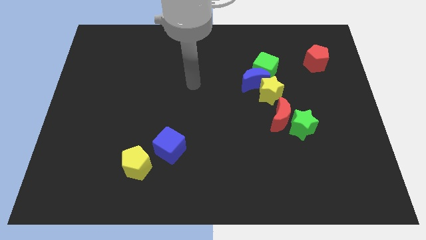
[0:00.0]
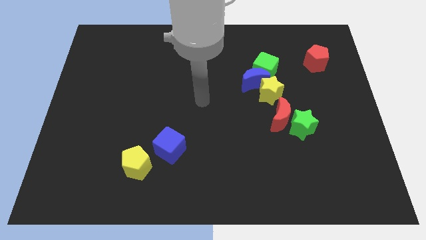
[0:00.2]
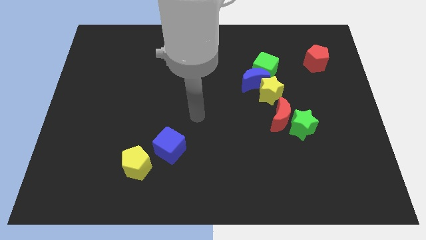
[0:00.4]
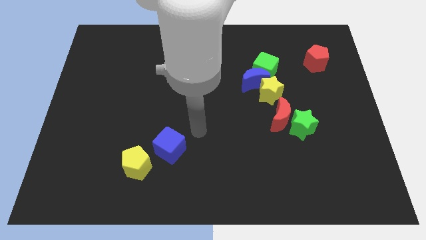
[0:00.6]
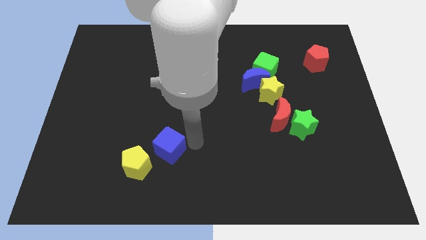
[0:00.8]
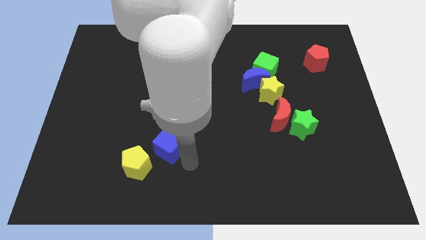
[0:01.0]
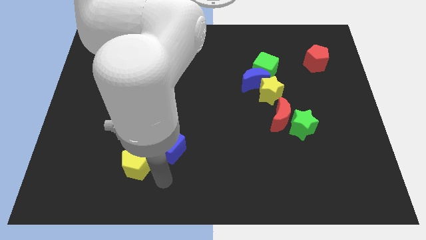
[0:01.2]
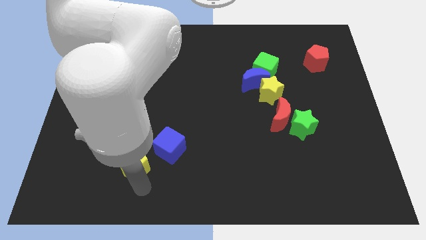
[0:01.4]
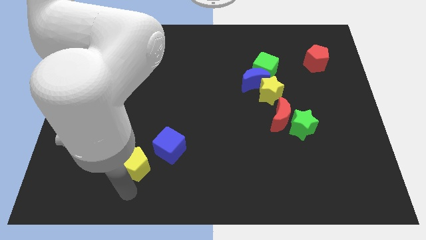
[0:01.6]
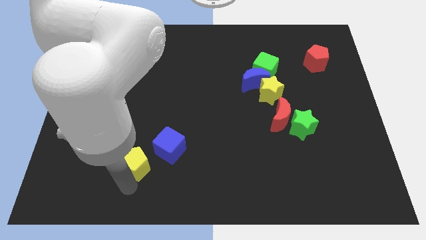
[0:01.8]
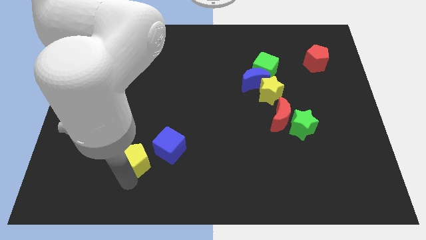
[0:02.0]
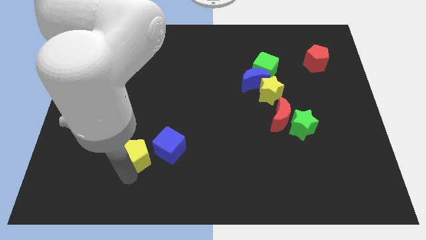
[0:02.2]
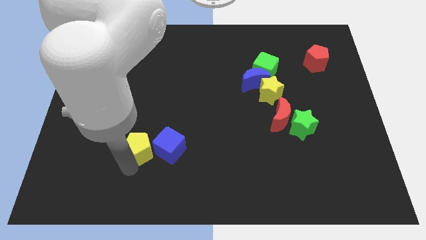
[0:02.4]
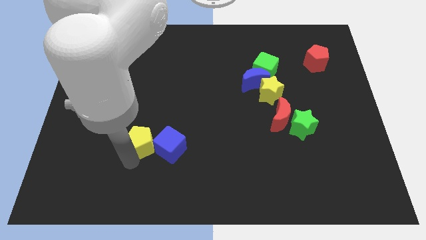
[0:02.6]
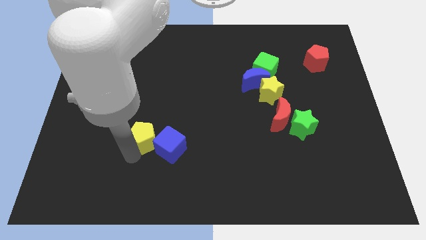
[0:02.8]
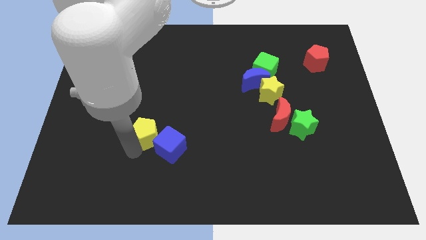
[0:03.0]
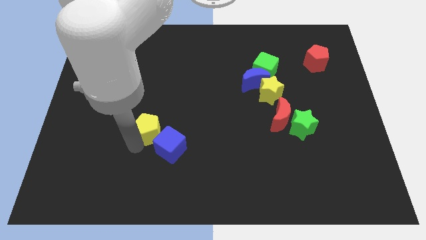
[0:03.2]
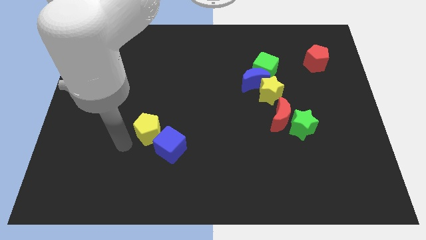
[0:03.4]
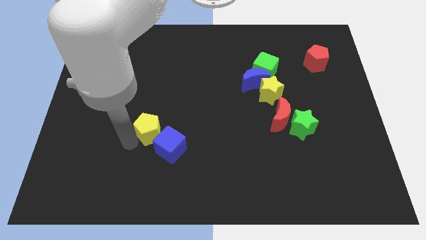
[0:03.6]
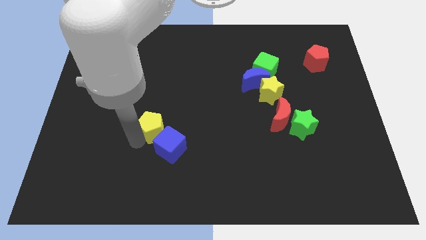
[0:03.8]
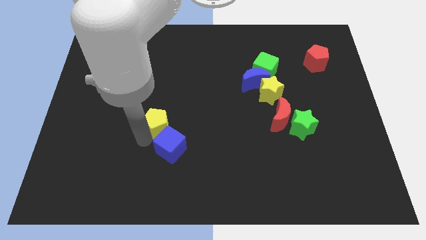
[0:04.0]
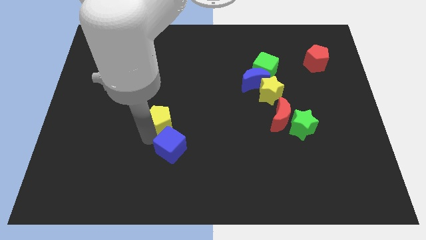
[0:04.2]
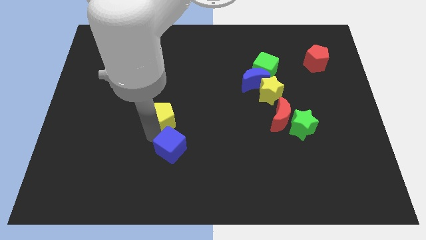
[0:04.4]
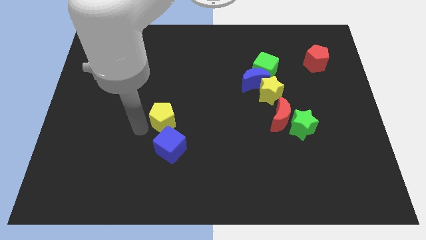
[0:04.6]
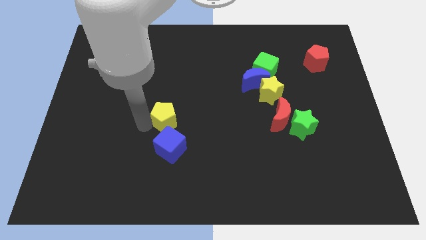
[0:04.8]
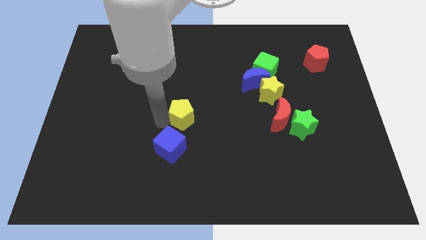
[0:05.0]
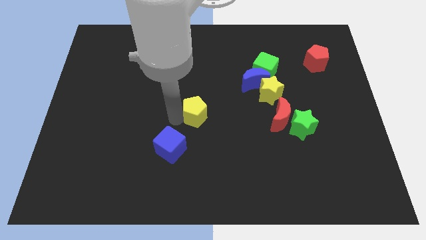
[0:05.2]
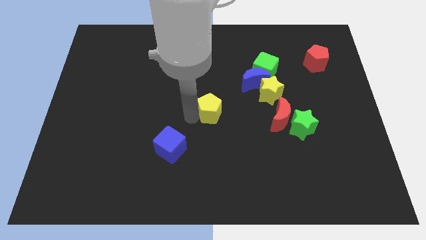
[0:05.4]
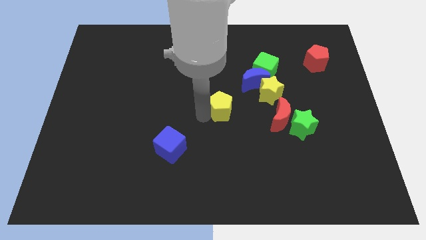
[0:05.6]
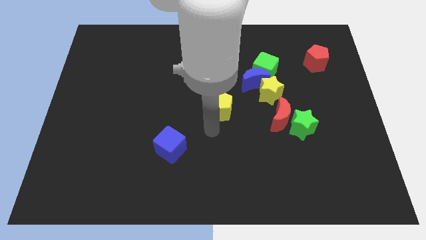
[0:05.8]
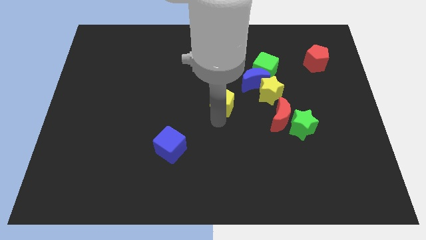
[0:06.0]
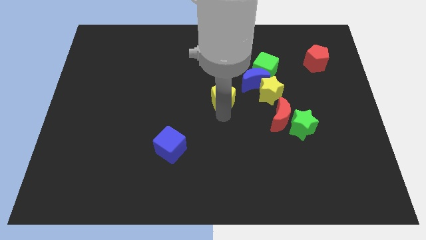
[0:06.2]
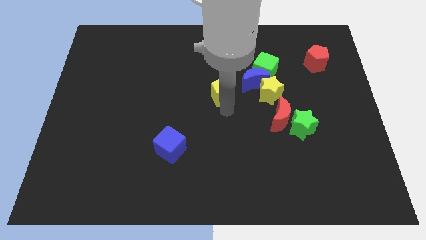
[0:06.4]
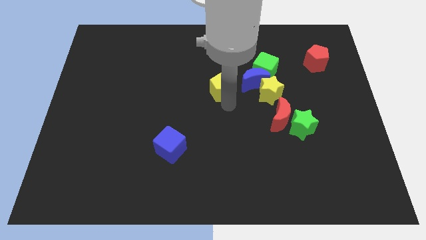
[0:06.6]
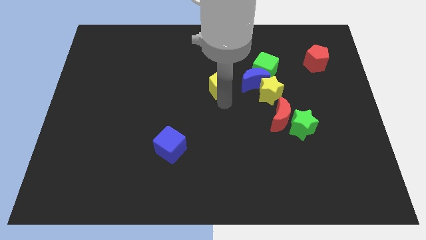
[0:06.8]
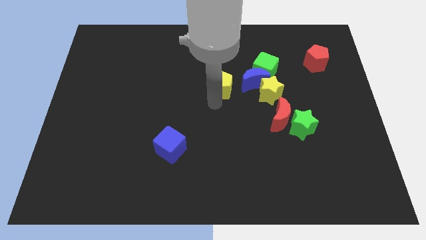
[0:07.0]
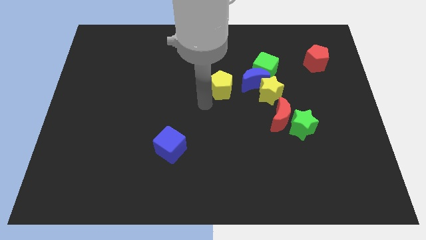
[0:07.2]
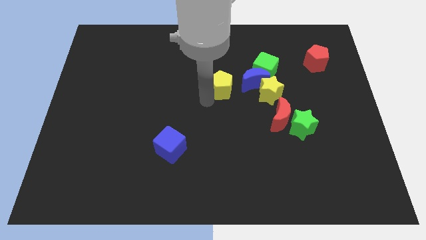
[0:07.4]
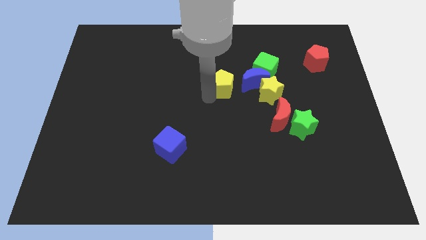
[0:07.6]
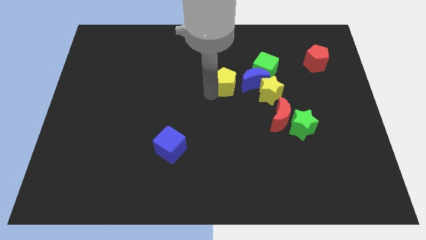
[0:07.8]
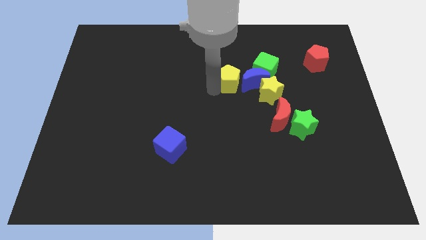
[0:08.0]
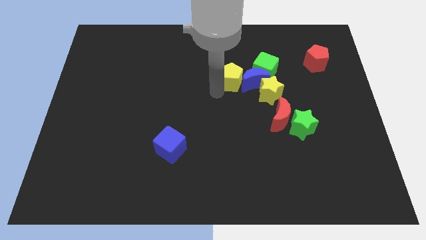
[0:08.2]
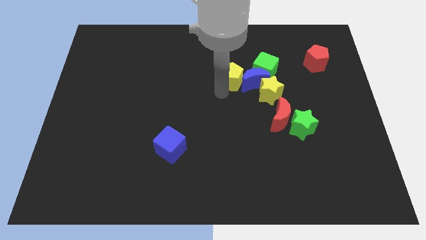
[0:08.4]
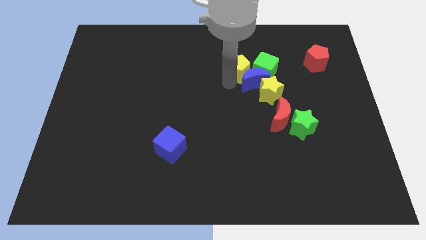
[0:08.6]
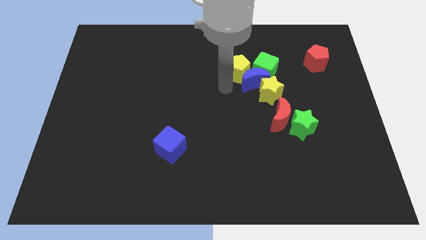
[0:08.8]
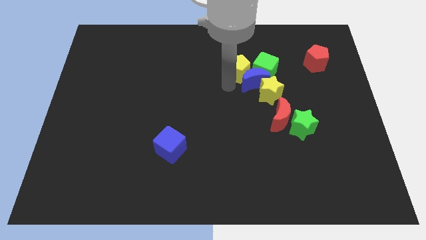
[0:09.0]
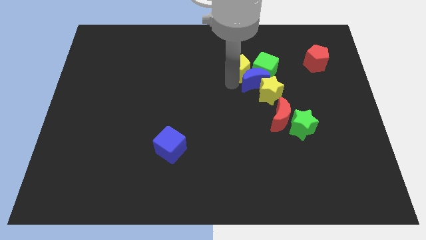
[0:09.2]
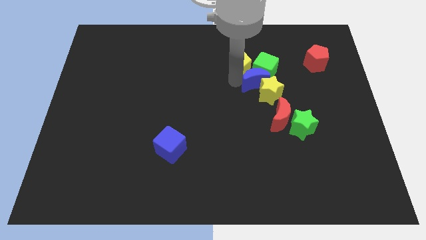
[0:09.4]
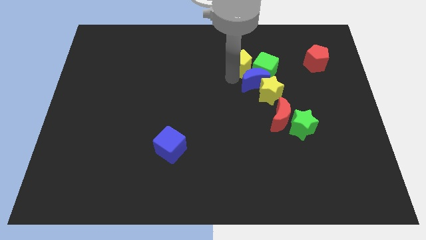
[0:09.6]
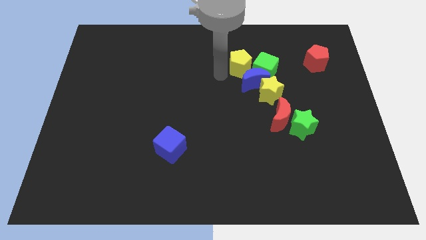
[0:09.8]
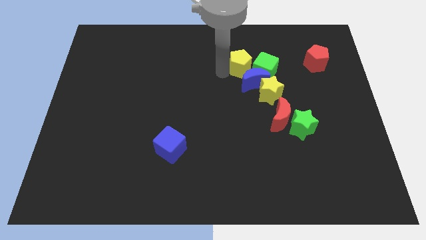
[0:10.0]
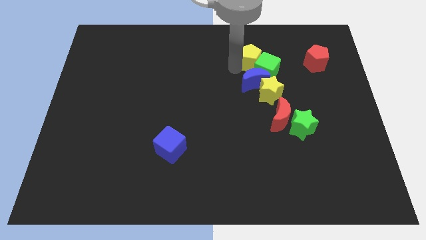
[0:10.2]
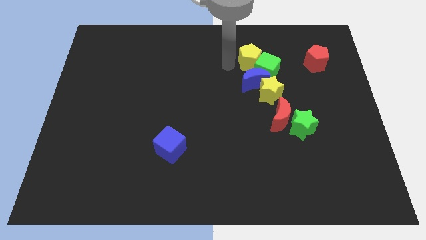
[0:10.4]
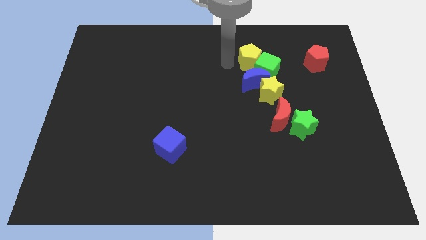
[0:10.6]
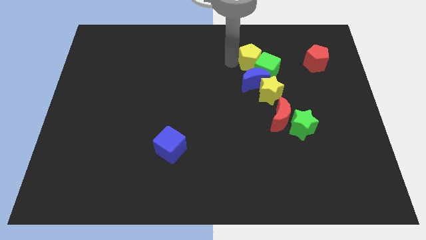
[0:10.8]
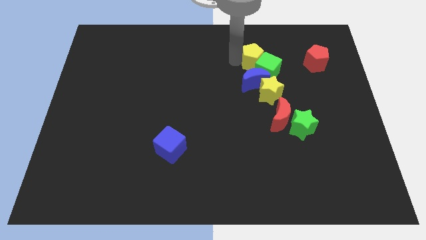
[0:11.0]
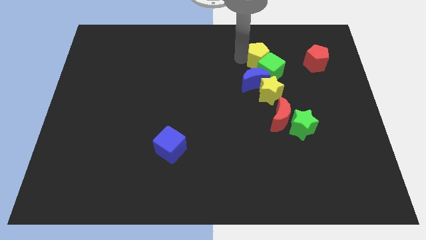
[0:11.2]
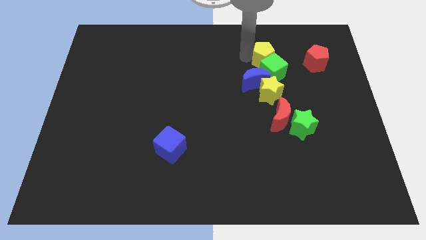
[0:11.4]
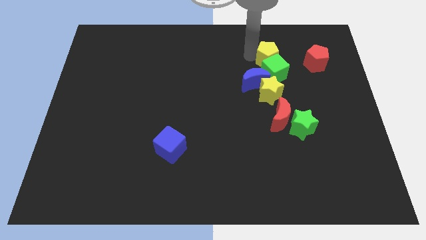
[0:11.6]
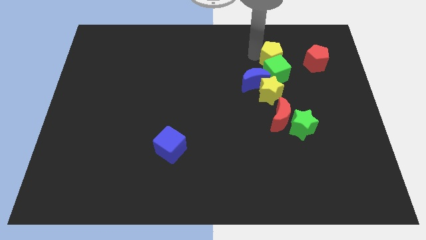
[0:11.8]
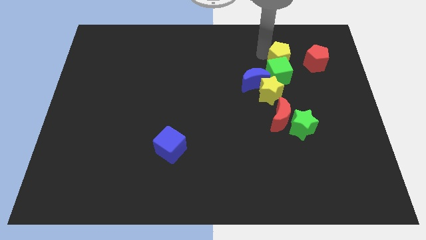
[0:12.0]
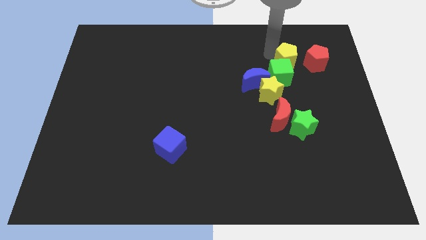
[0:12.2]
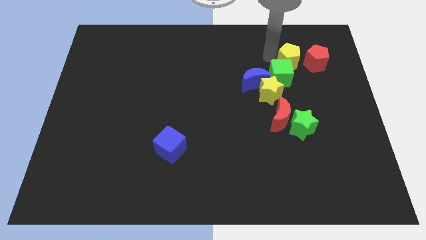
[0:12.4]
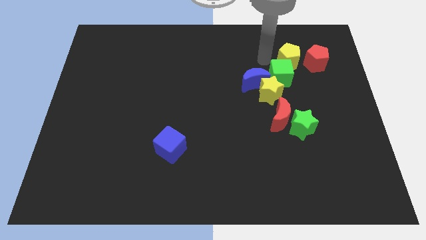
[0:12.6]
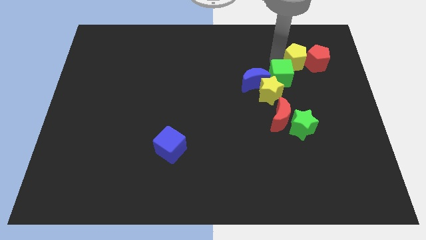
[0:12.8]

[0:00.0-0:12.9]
put the yellow pentagon towards the red pentagon
